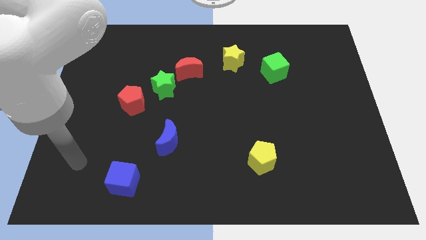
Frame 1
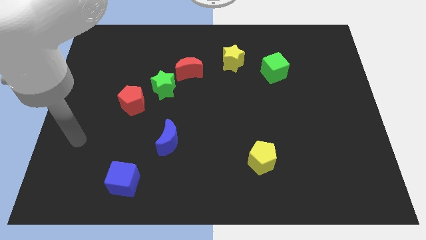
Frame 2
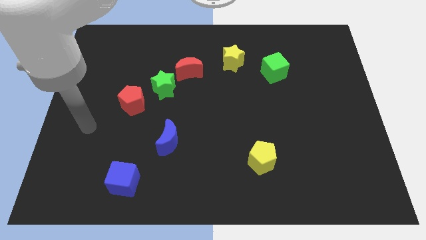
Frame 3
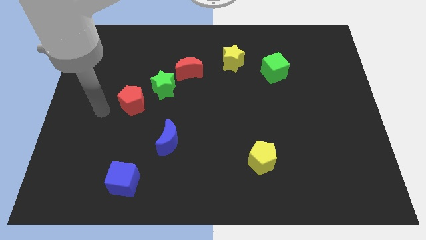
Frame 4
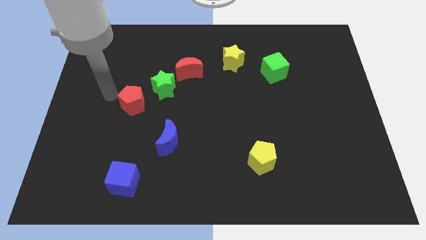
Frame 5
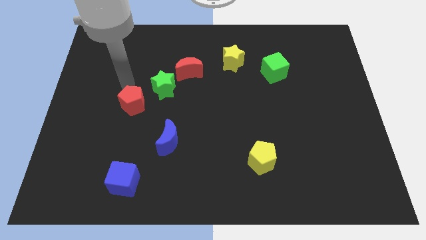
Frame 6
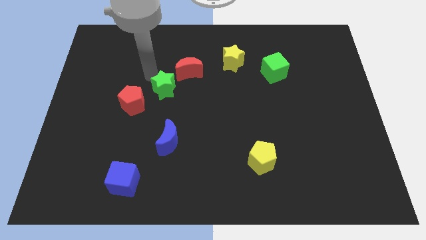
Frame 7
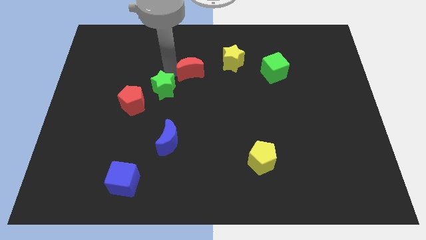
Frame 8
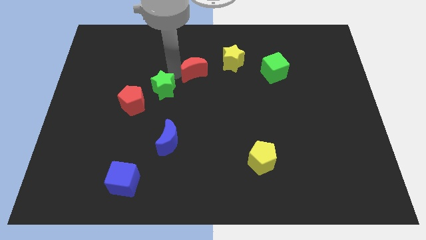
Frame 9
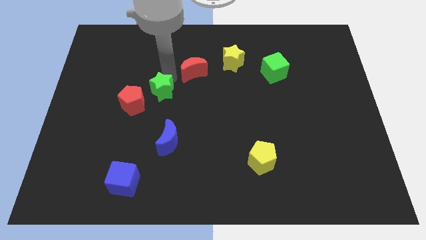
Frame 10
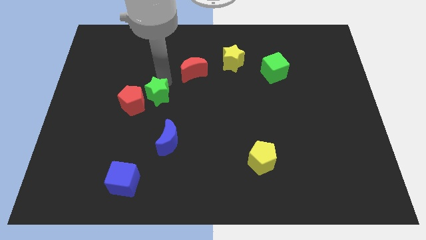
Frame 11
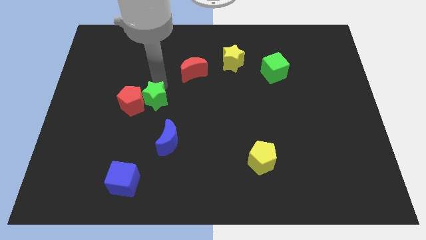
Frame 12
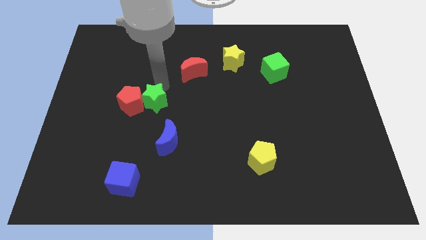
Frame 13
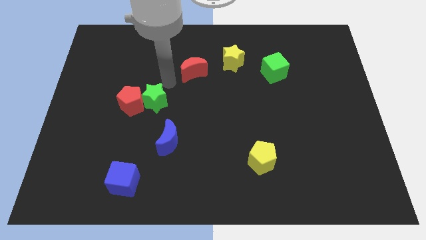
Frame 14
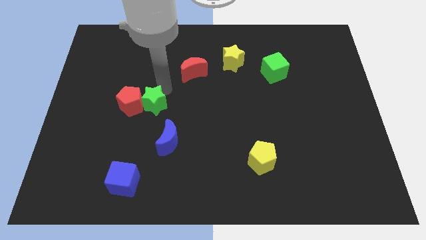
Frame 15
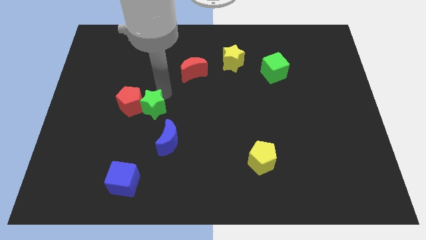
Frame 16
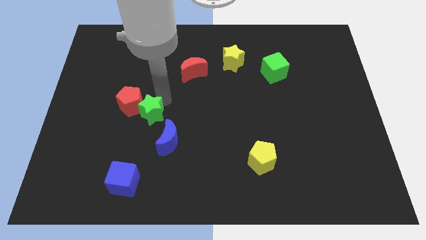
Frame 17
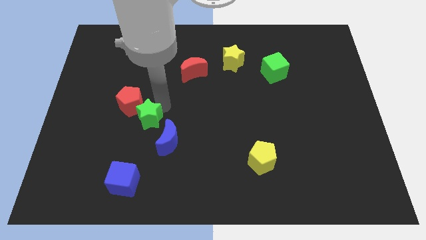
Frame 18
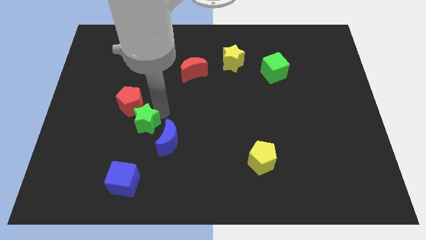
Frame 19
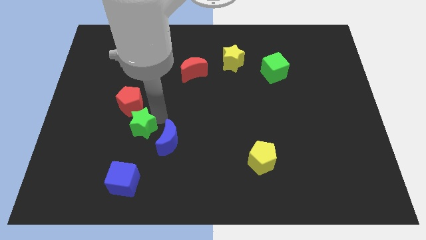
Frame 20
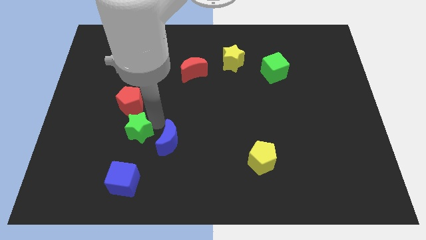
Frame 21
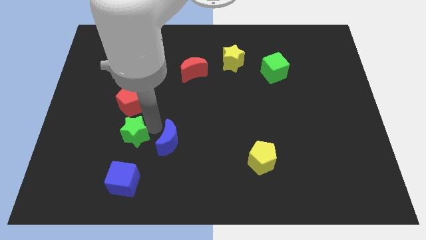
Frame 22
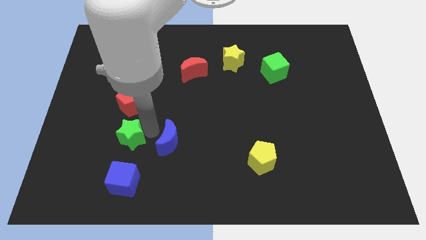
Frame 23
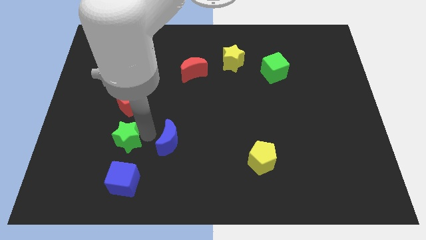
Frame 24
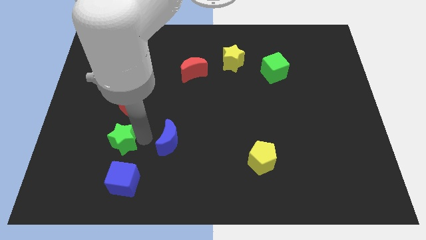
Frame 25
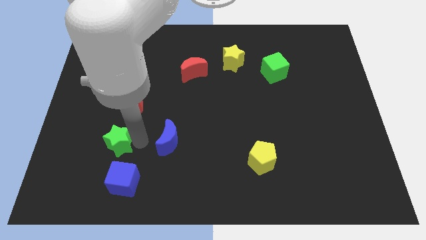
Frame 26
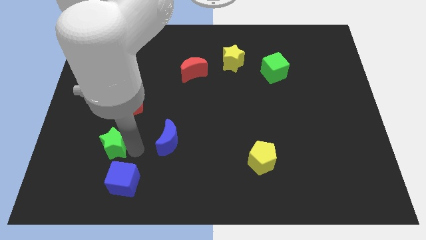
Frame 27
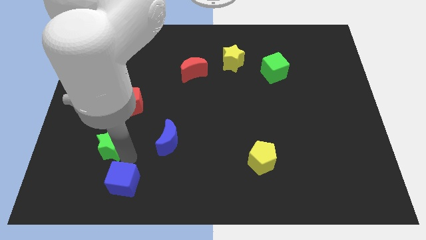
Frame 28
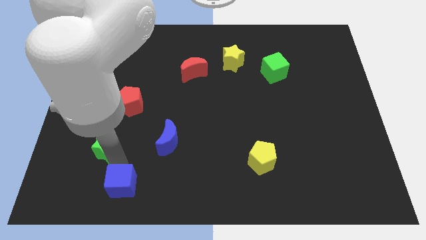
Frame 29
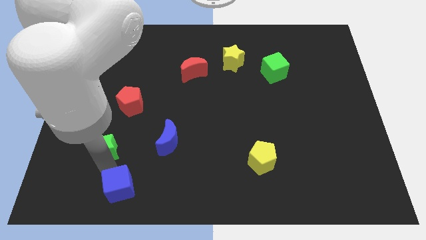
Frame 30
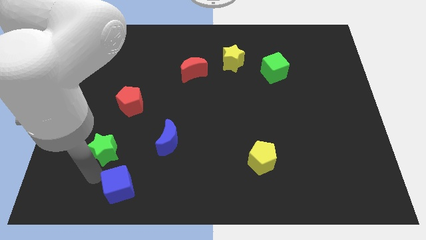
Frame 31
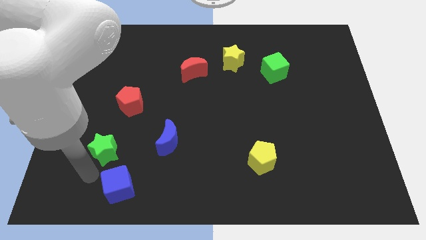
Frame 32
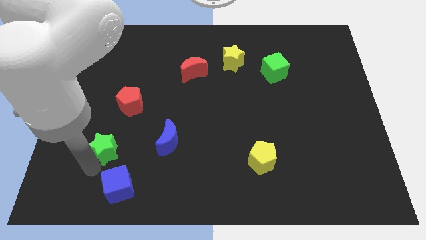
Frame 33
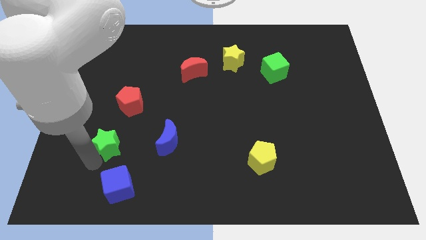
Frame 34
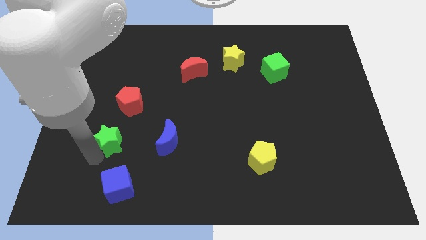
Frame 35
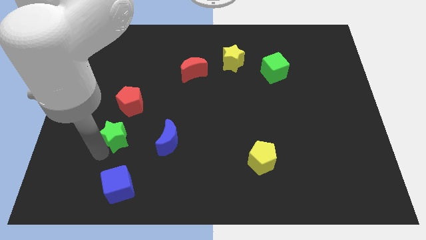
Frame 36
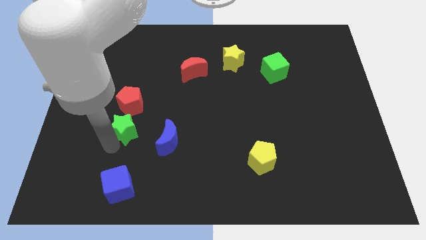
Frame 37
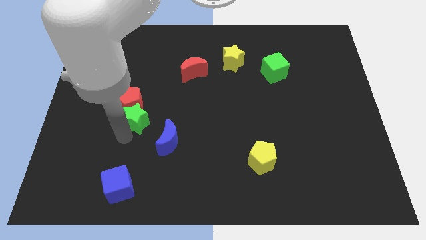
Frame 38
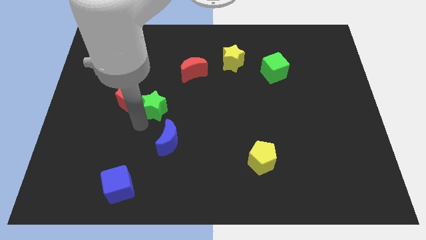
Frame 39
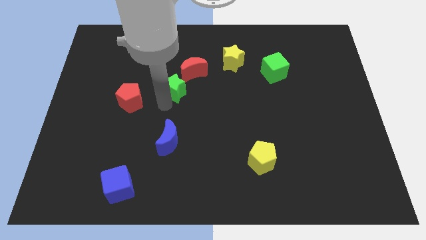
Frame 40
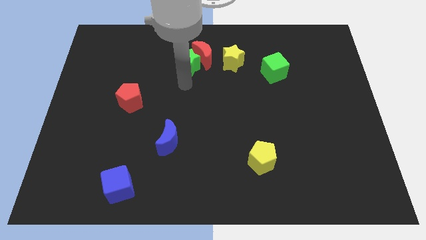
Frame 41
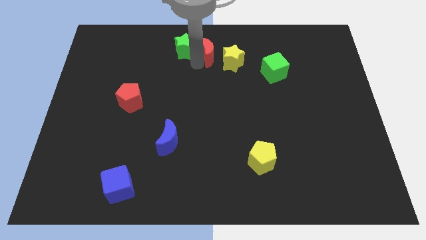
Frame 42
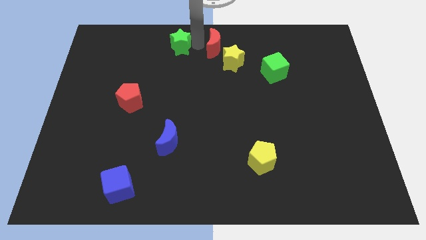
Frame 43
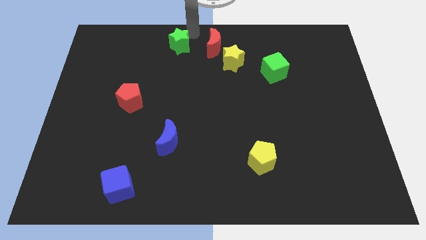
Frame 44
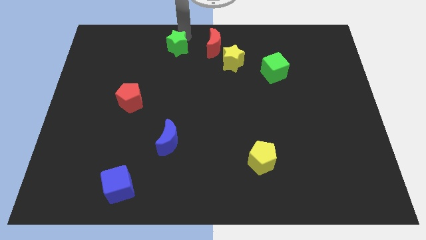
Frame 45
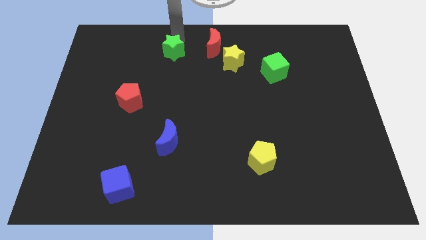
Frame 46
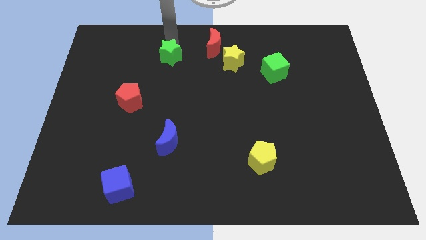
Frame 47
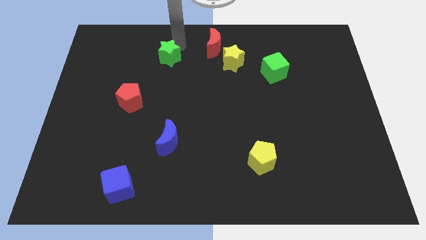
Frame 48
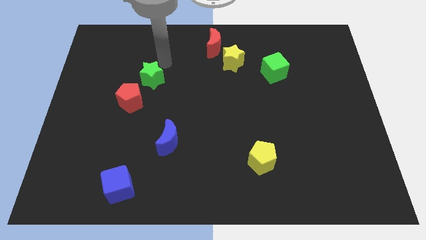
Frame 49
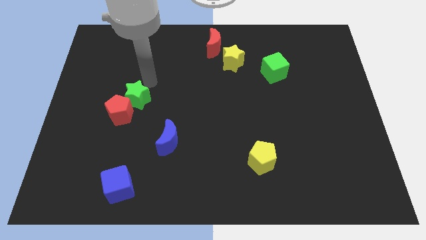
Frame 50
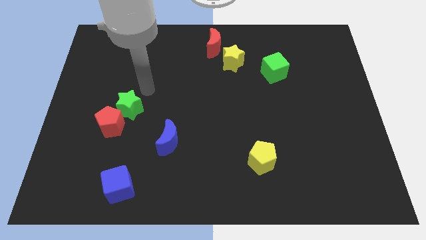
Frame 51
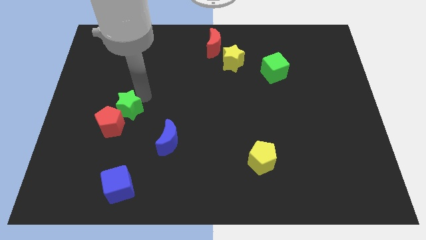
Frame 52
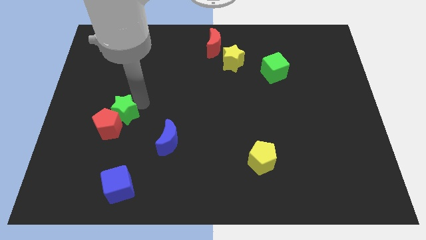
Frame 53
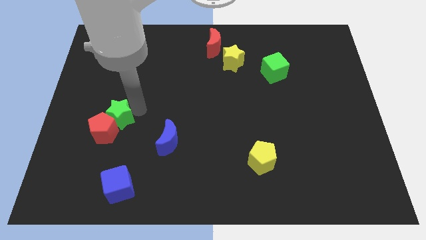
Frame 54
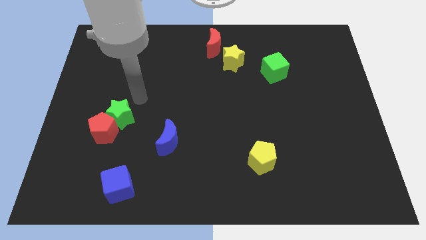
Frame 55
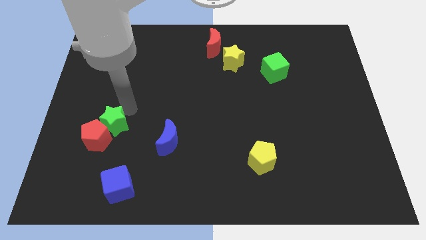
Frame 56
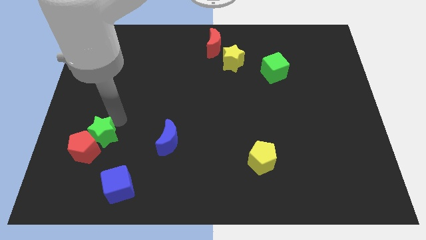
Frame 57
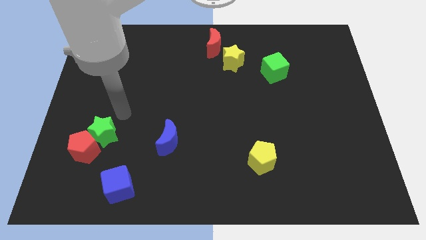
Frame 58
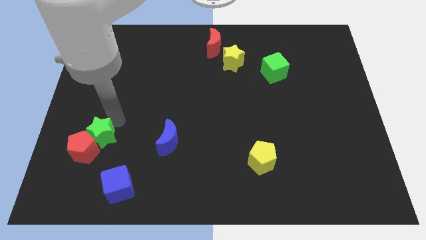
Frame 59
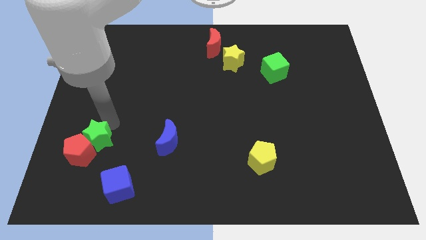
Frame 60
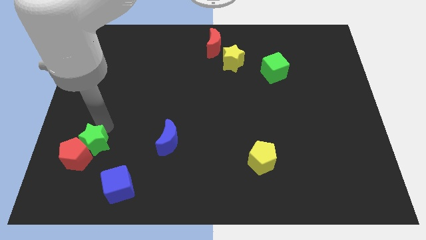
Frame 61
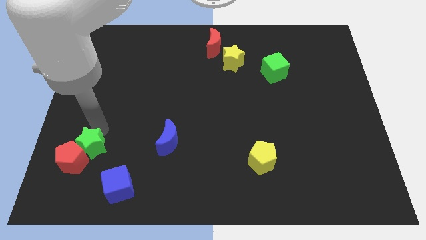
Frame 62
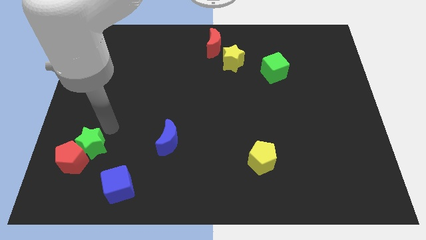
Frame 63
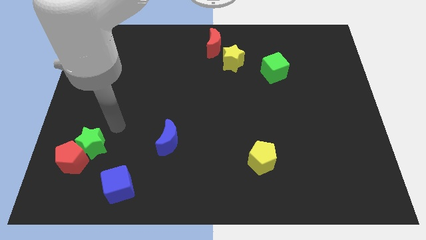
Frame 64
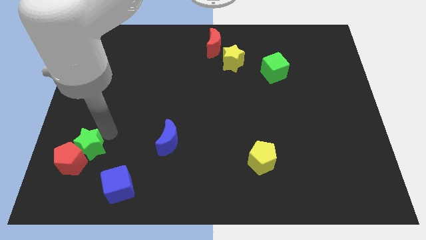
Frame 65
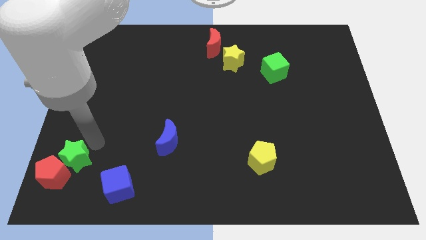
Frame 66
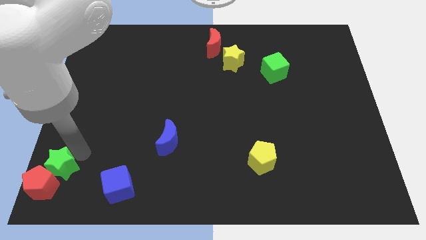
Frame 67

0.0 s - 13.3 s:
push the green star to the bottom left corner

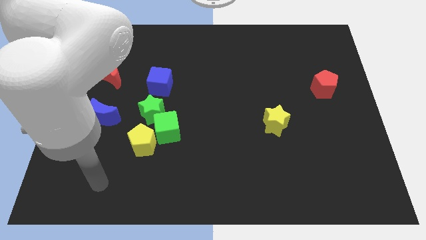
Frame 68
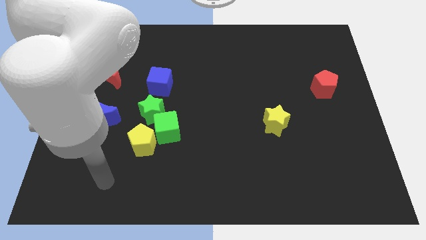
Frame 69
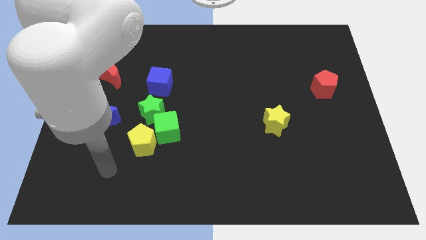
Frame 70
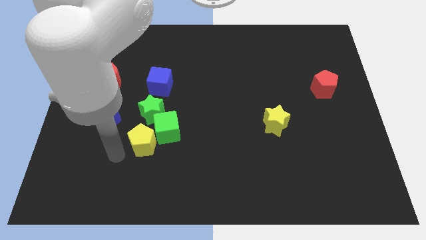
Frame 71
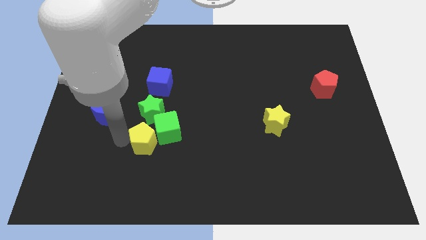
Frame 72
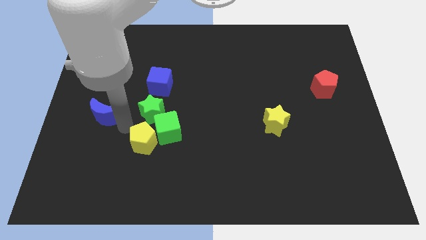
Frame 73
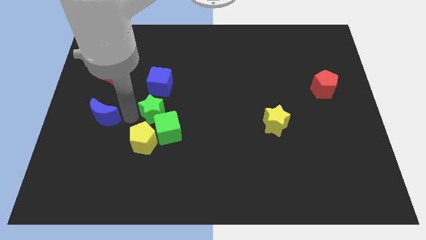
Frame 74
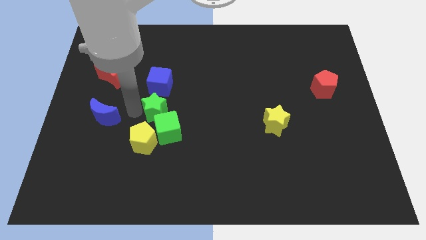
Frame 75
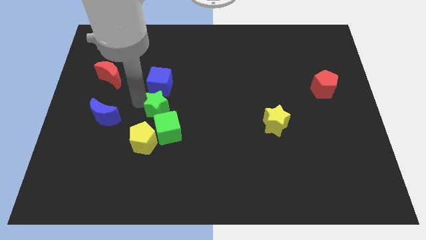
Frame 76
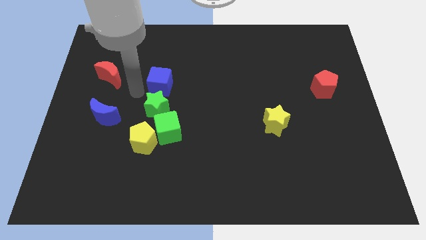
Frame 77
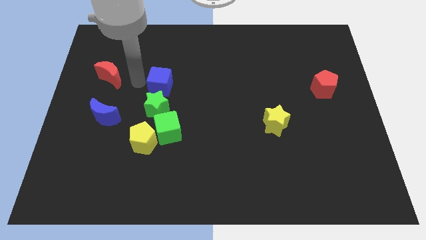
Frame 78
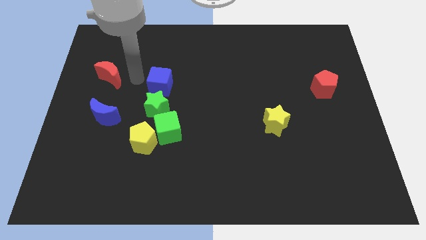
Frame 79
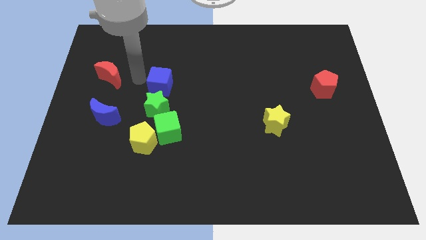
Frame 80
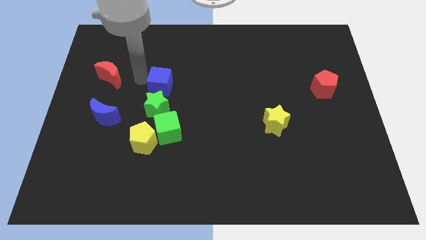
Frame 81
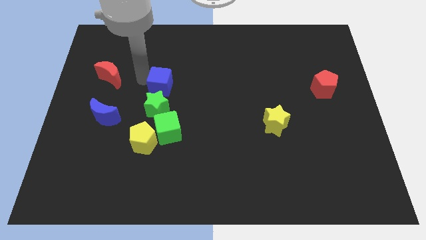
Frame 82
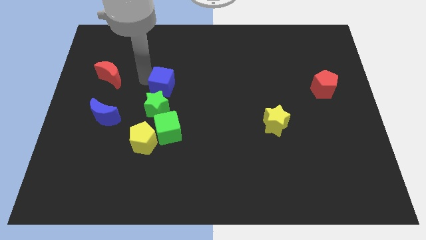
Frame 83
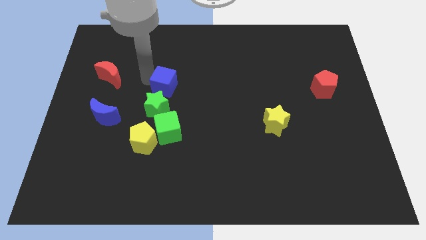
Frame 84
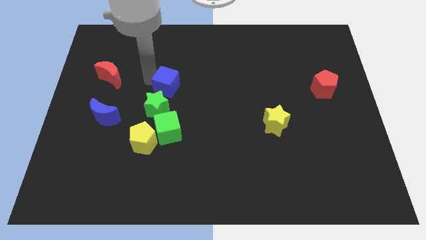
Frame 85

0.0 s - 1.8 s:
push the blue cube to the middle
